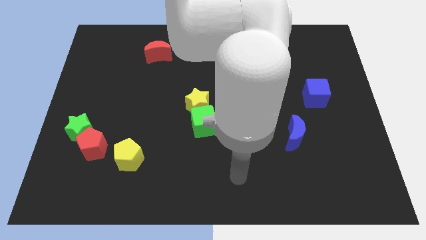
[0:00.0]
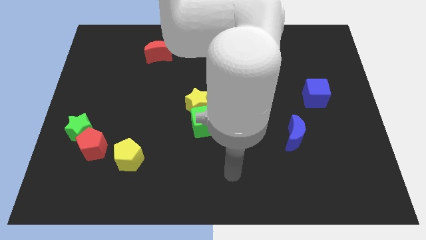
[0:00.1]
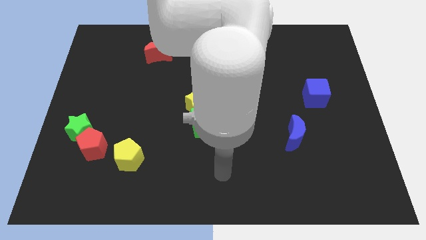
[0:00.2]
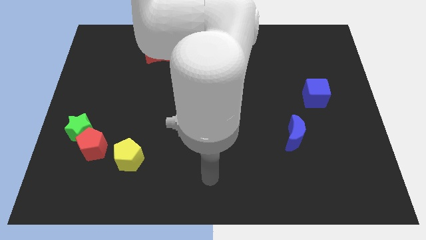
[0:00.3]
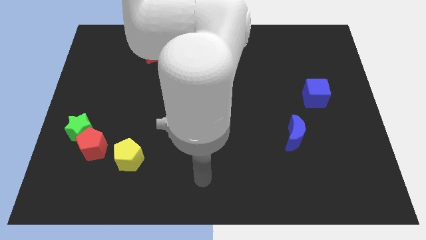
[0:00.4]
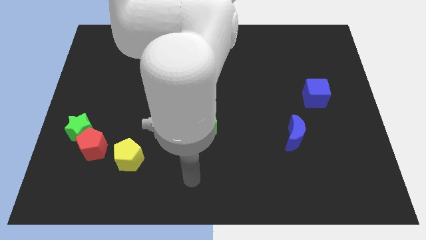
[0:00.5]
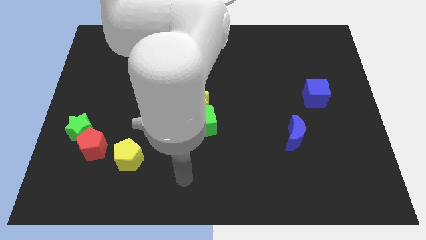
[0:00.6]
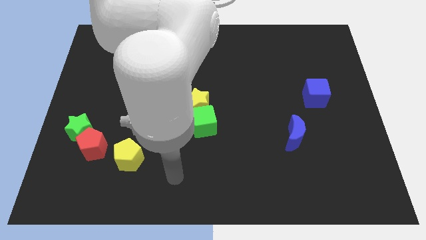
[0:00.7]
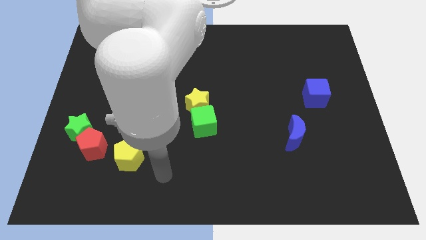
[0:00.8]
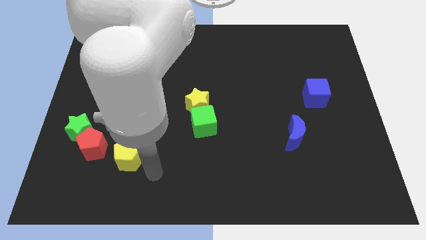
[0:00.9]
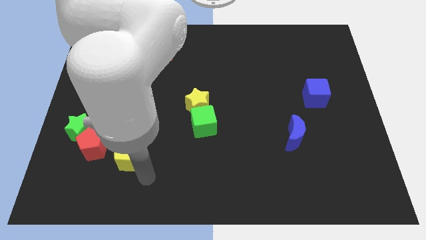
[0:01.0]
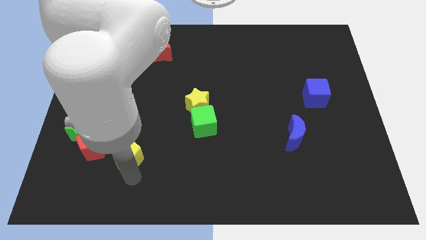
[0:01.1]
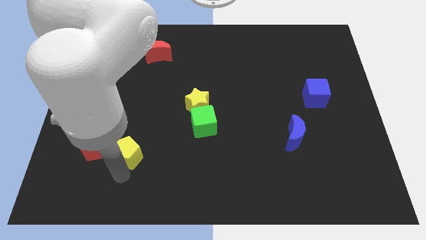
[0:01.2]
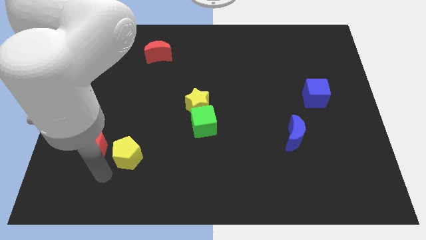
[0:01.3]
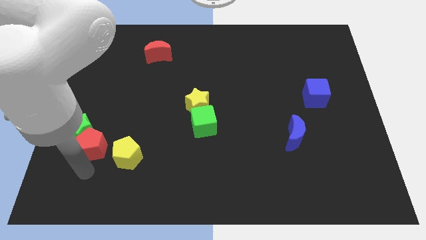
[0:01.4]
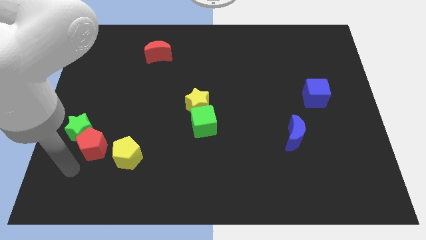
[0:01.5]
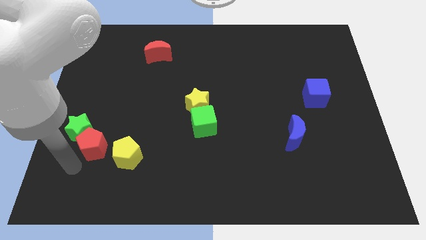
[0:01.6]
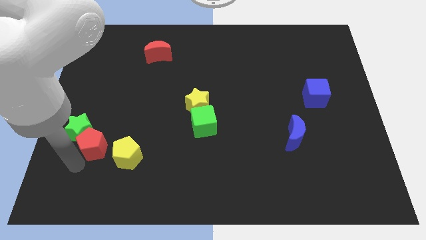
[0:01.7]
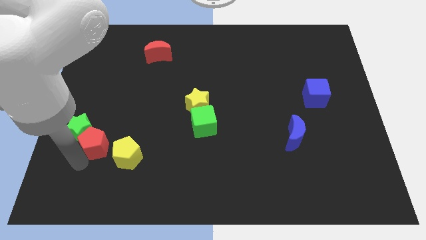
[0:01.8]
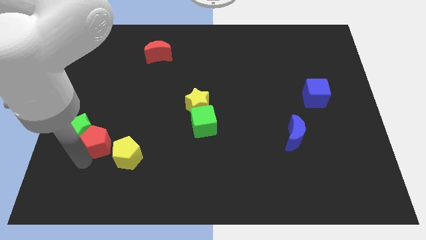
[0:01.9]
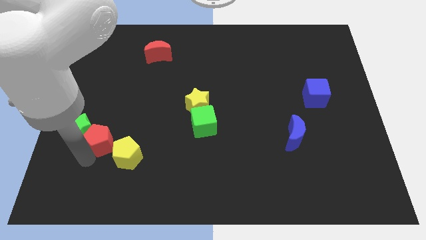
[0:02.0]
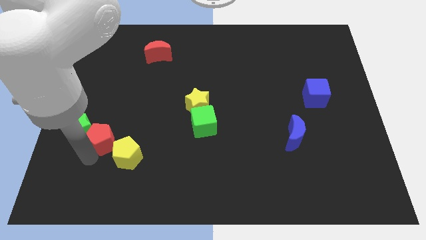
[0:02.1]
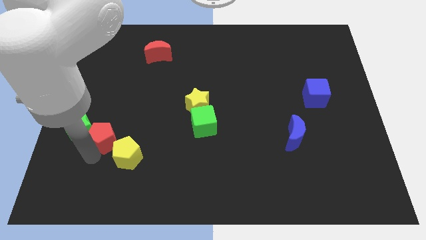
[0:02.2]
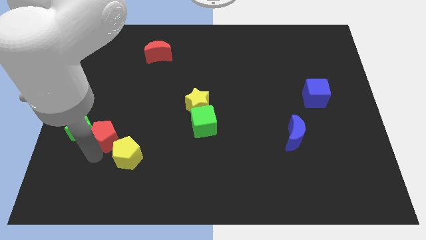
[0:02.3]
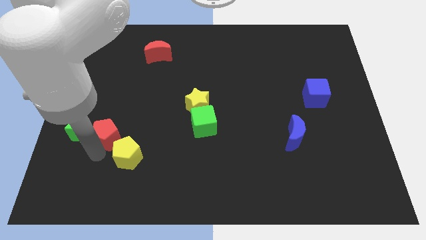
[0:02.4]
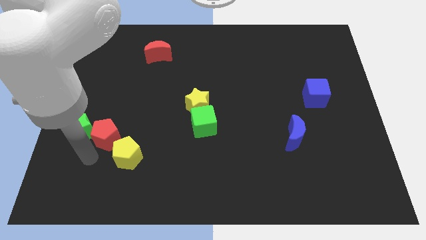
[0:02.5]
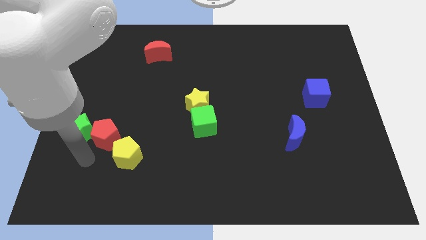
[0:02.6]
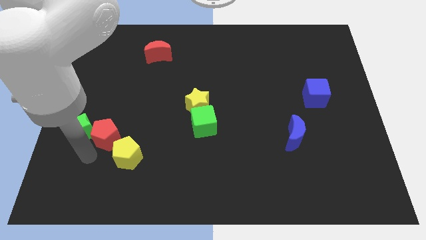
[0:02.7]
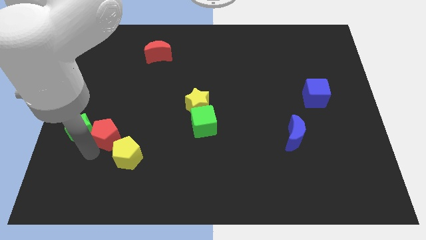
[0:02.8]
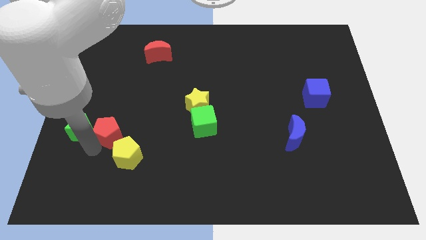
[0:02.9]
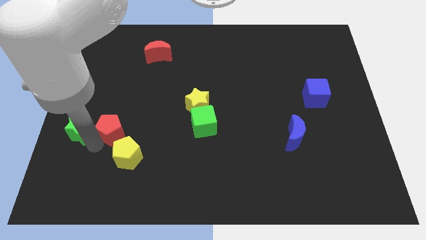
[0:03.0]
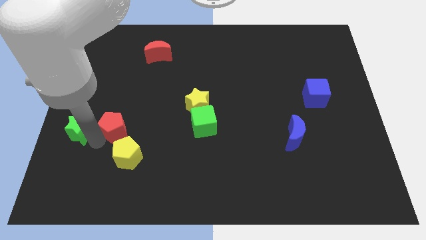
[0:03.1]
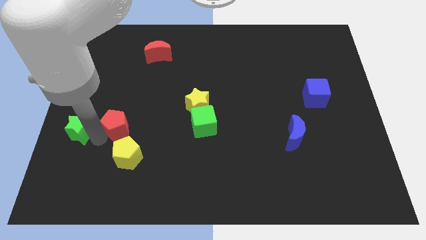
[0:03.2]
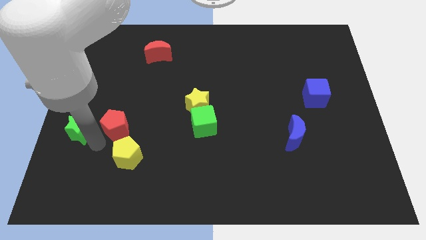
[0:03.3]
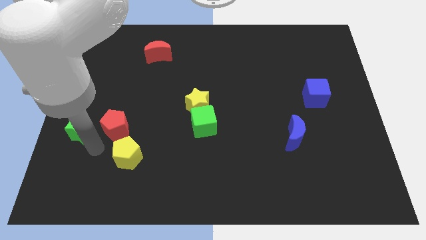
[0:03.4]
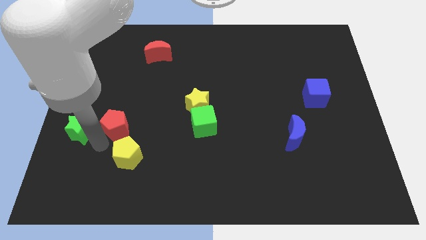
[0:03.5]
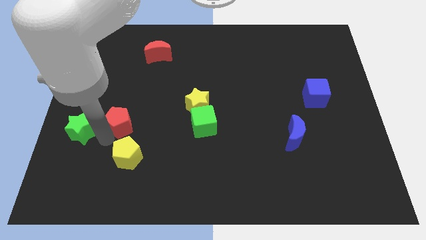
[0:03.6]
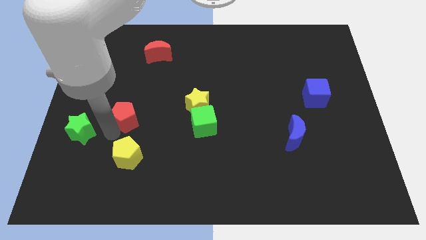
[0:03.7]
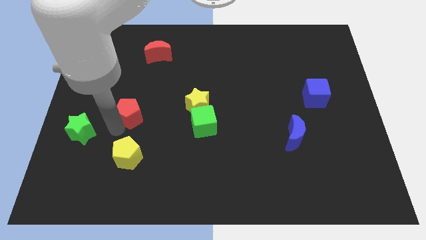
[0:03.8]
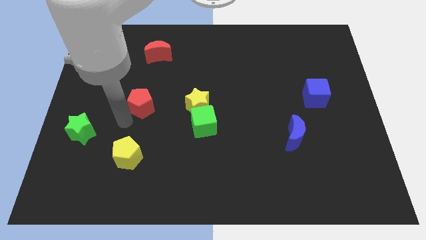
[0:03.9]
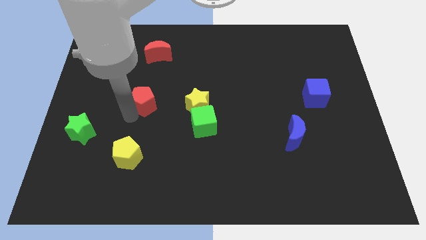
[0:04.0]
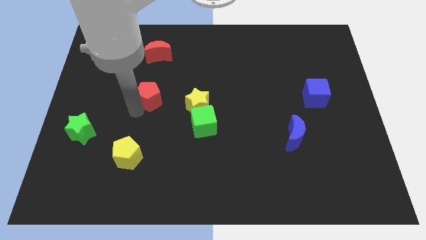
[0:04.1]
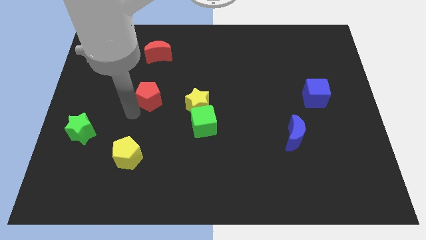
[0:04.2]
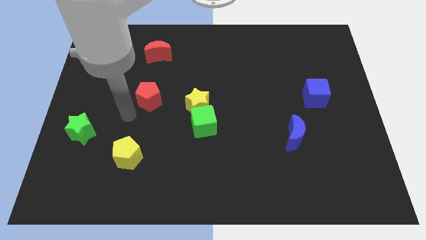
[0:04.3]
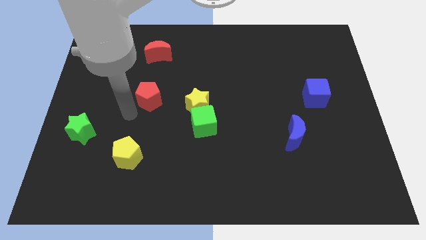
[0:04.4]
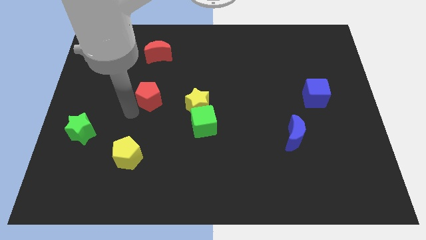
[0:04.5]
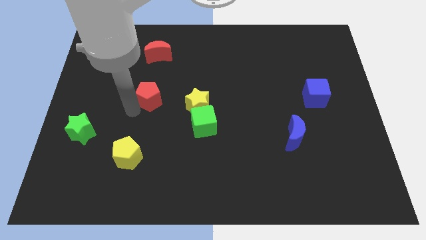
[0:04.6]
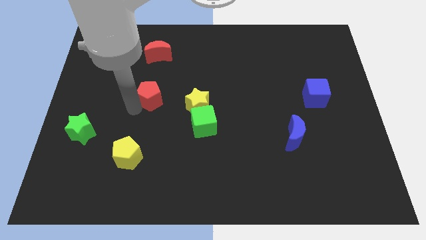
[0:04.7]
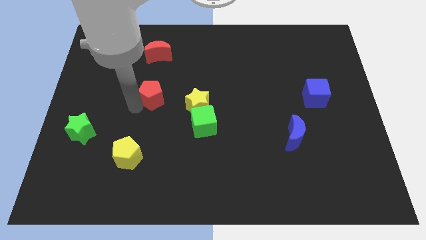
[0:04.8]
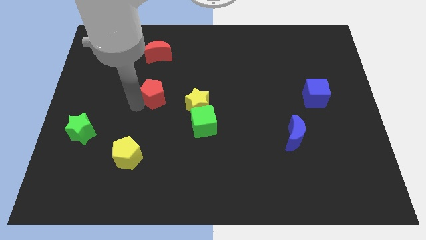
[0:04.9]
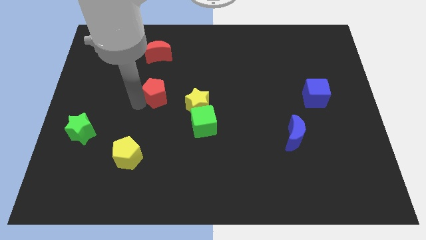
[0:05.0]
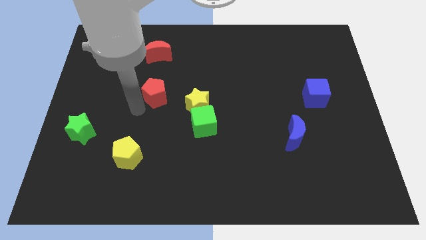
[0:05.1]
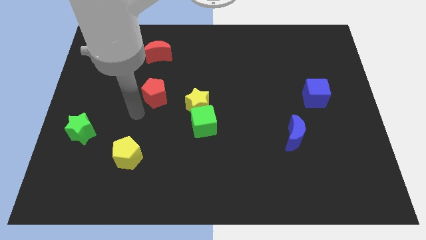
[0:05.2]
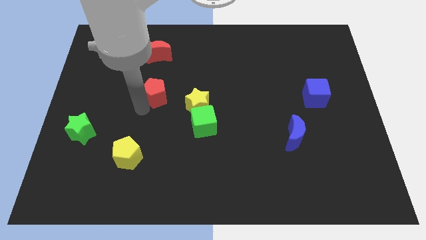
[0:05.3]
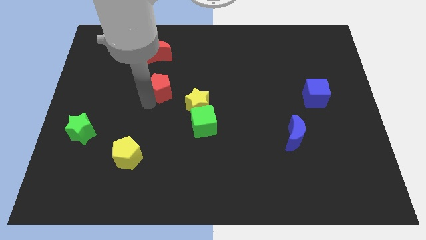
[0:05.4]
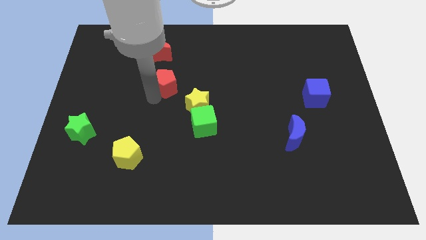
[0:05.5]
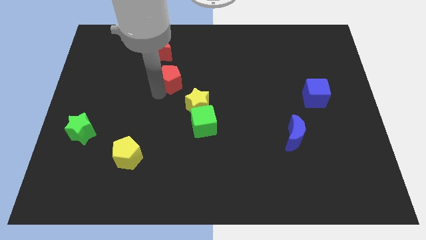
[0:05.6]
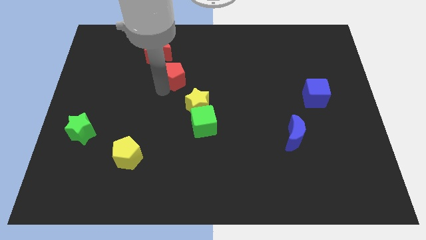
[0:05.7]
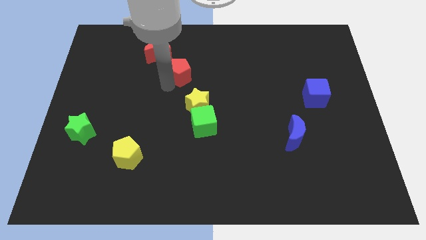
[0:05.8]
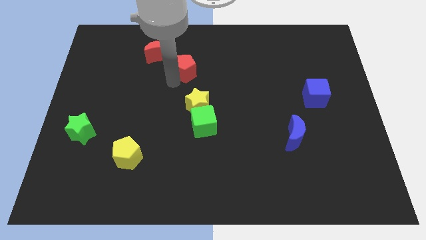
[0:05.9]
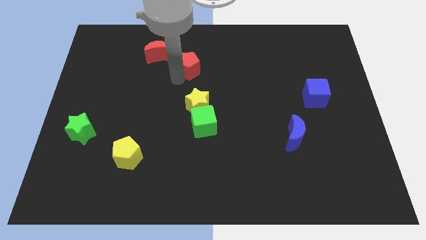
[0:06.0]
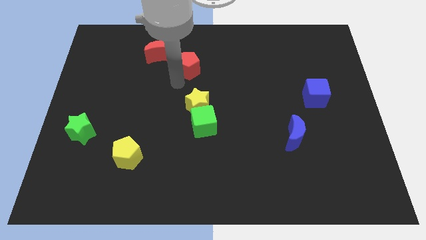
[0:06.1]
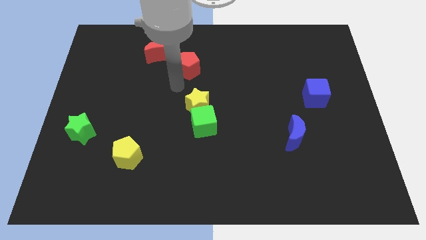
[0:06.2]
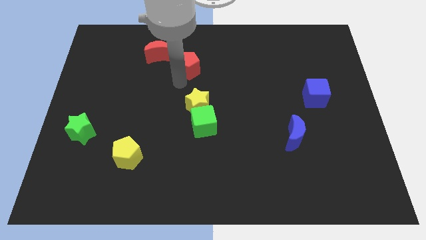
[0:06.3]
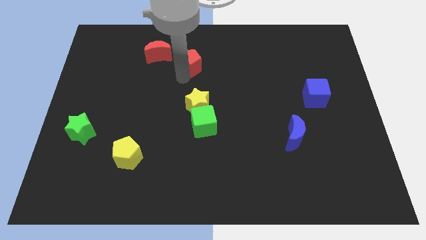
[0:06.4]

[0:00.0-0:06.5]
slide the red pentagon to the right side of the red moon

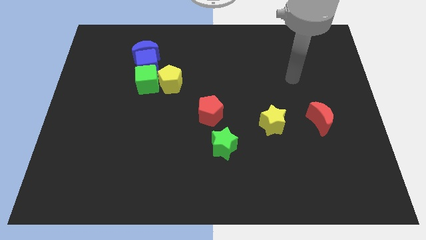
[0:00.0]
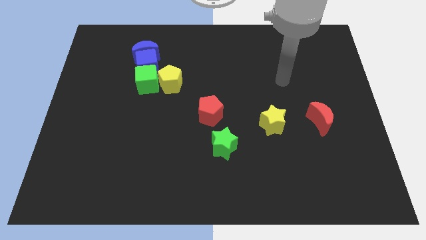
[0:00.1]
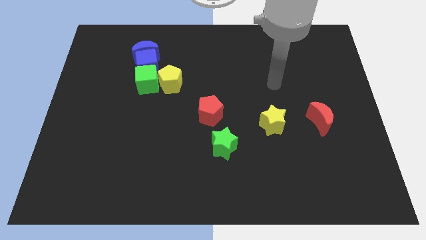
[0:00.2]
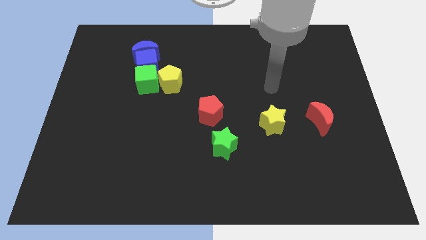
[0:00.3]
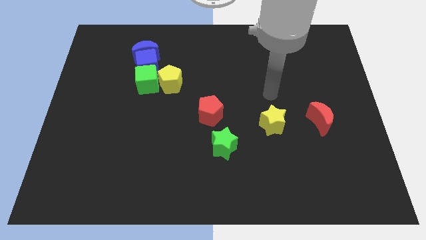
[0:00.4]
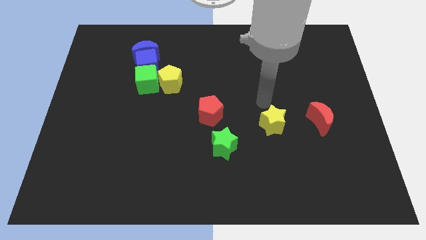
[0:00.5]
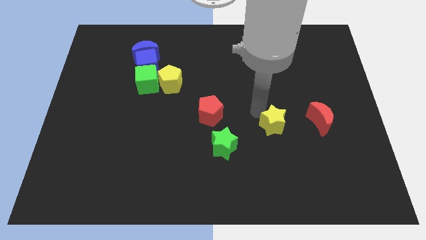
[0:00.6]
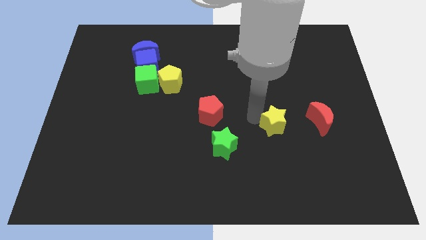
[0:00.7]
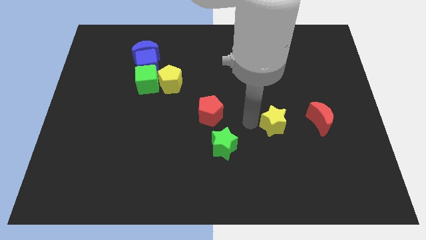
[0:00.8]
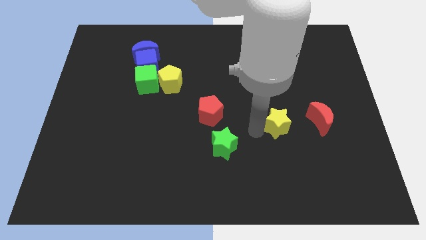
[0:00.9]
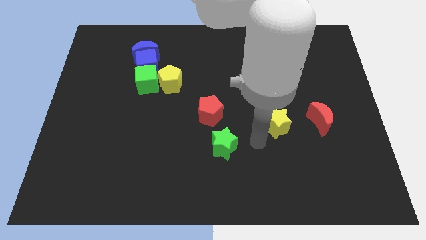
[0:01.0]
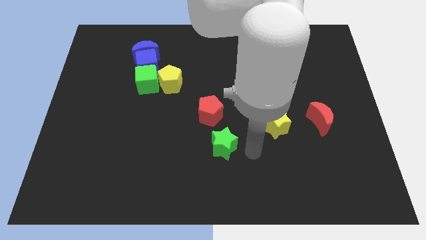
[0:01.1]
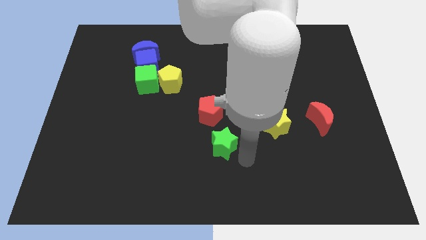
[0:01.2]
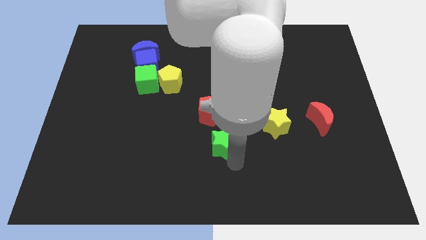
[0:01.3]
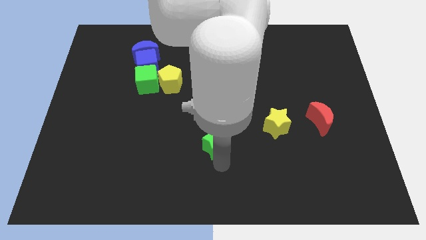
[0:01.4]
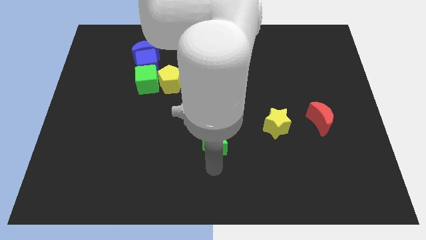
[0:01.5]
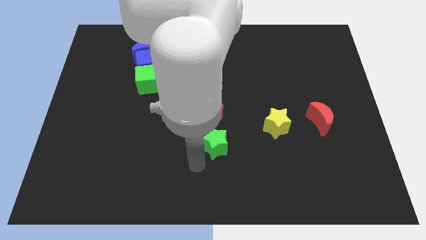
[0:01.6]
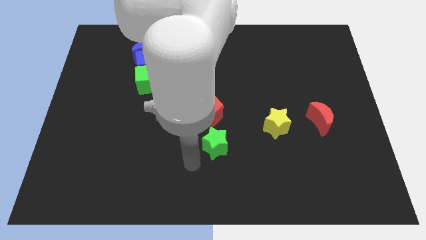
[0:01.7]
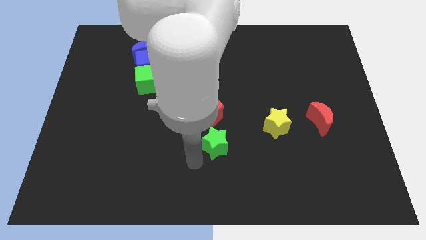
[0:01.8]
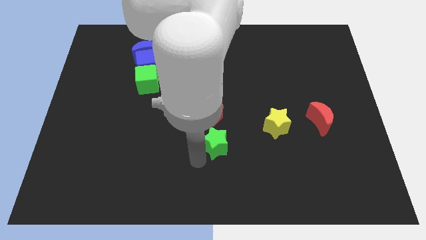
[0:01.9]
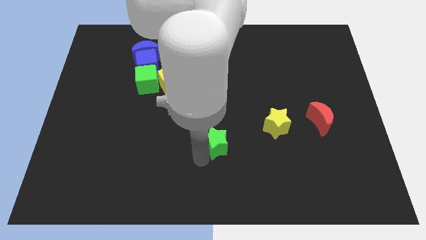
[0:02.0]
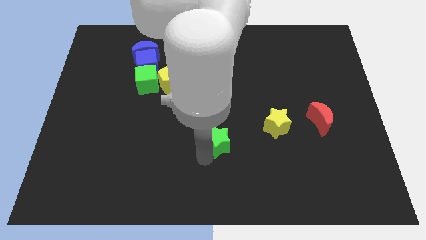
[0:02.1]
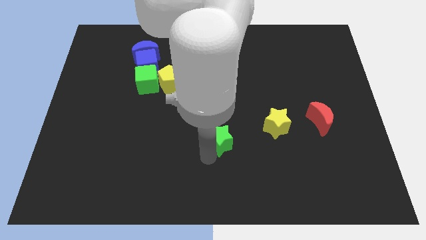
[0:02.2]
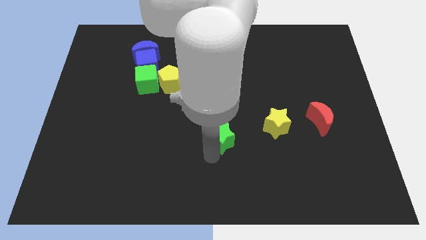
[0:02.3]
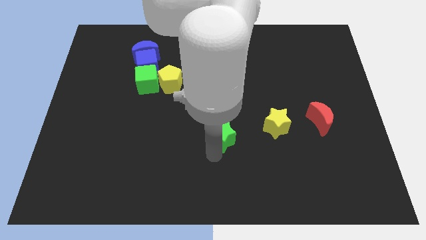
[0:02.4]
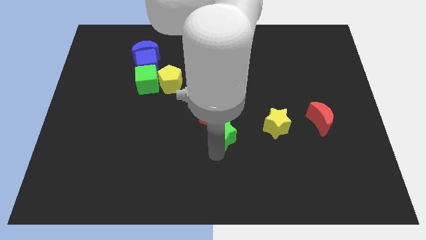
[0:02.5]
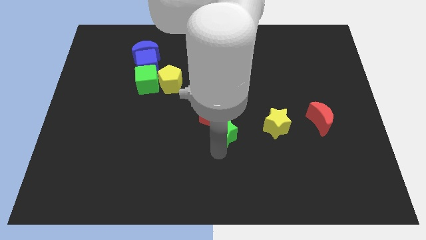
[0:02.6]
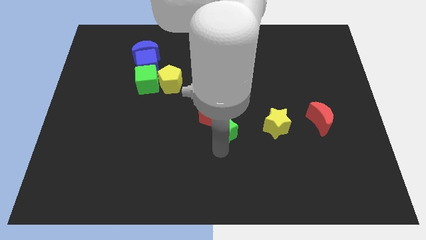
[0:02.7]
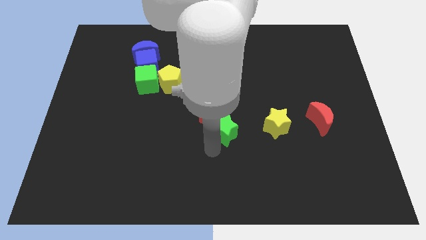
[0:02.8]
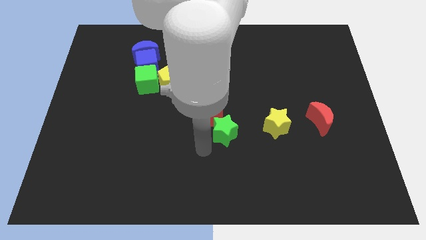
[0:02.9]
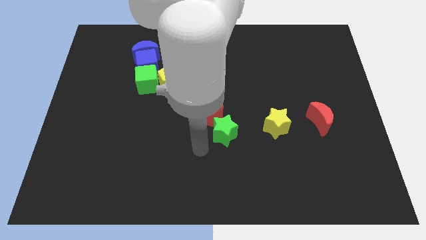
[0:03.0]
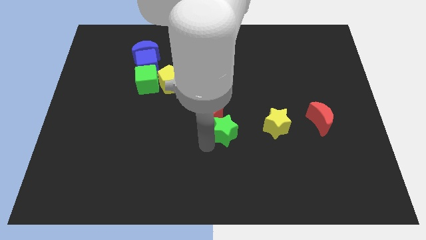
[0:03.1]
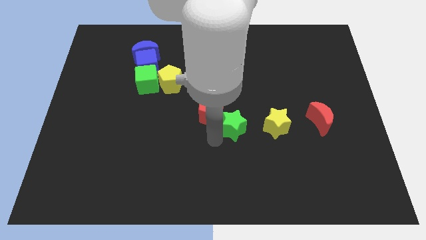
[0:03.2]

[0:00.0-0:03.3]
move the green star to the right side of the red pentagon
